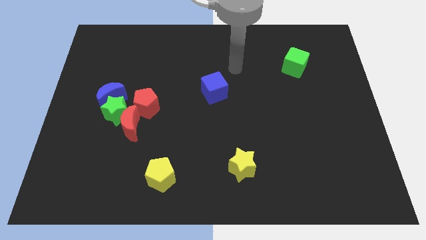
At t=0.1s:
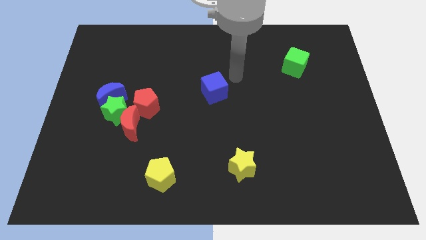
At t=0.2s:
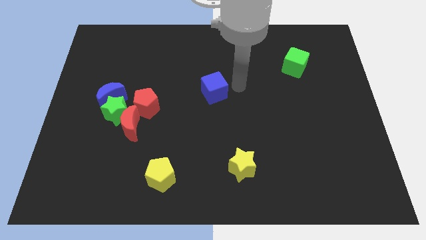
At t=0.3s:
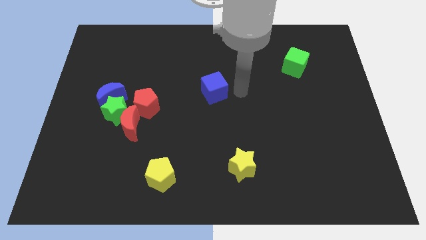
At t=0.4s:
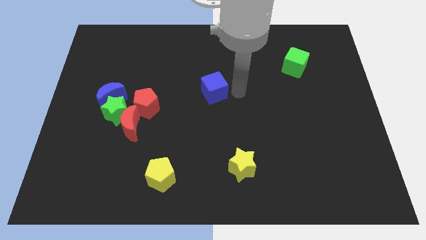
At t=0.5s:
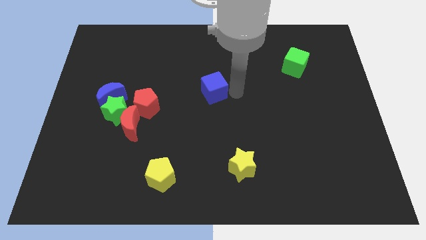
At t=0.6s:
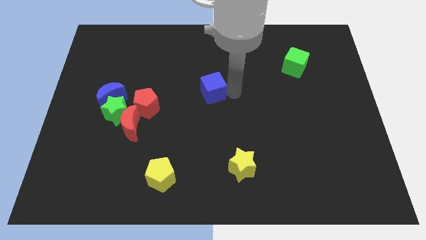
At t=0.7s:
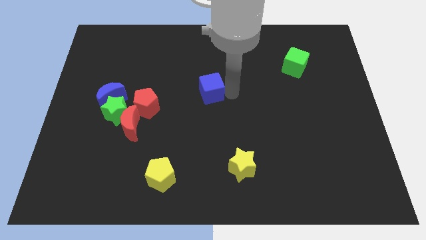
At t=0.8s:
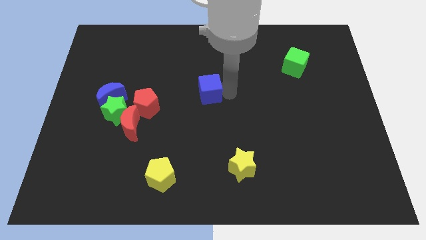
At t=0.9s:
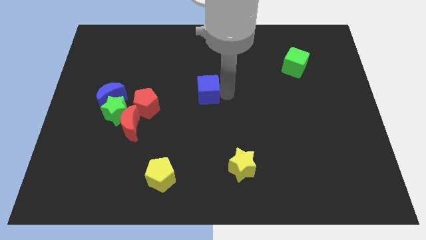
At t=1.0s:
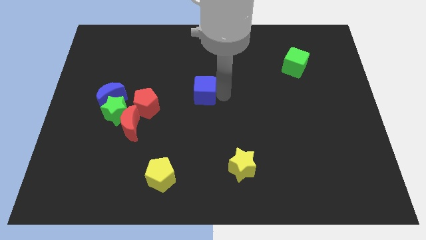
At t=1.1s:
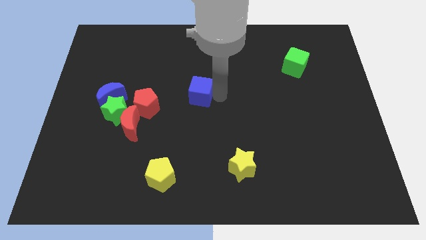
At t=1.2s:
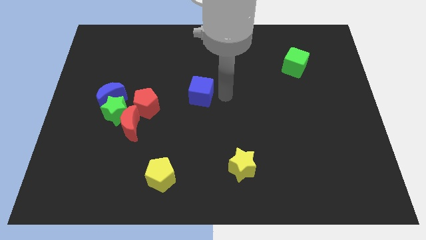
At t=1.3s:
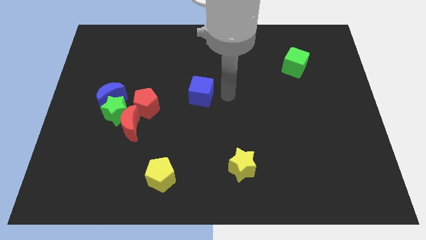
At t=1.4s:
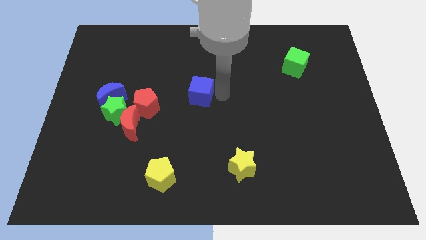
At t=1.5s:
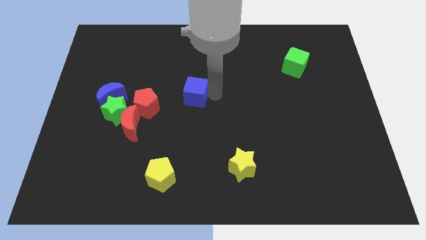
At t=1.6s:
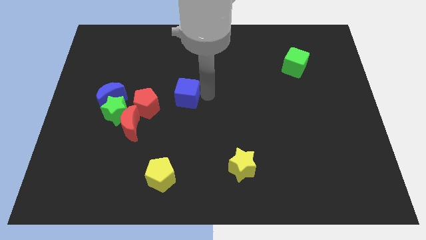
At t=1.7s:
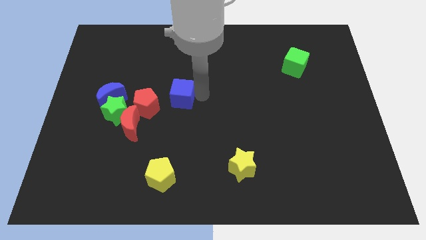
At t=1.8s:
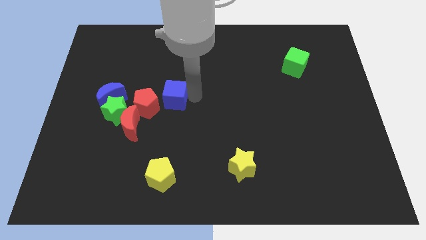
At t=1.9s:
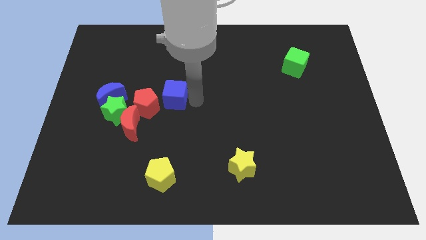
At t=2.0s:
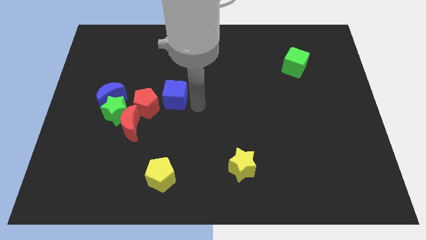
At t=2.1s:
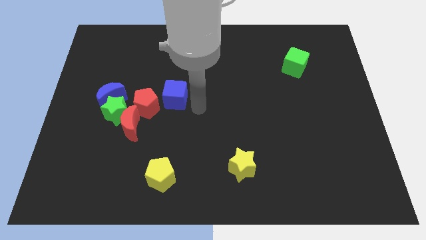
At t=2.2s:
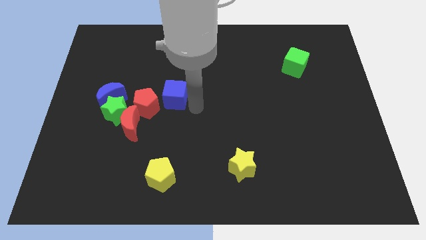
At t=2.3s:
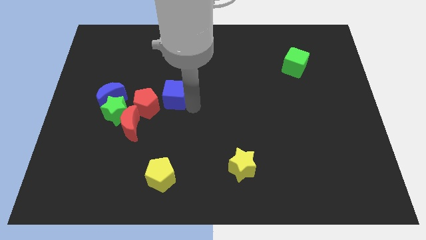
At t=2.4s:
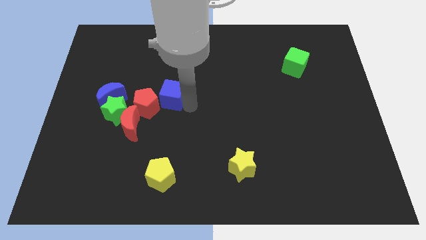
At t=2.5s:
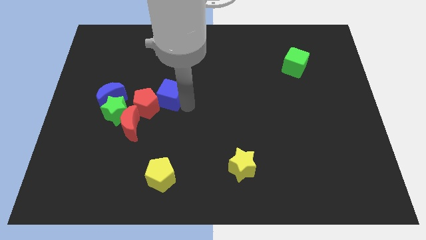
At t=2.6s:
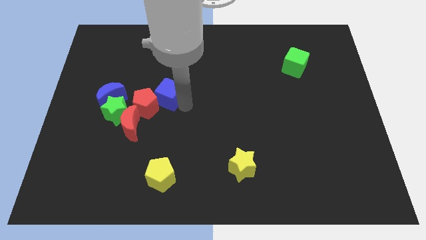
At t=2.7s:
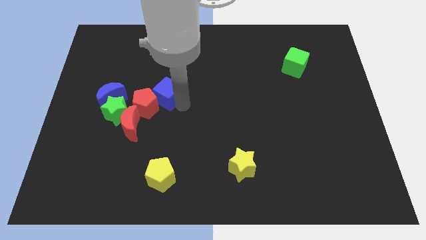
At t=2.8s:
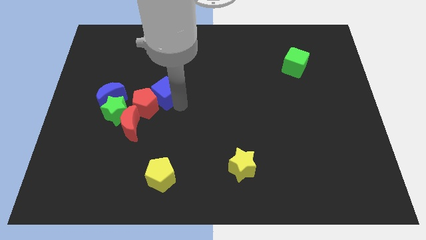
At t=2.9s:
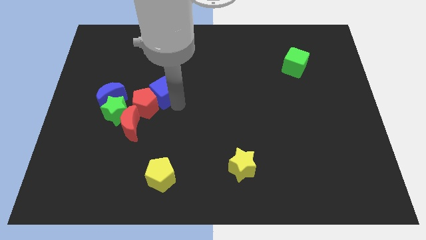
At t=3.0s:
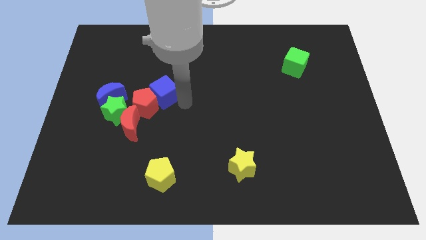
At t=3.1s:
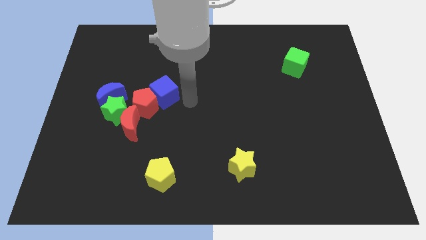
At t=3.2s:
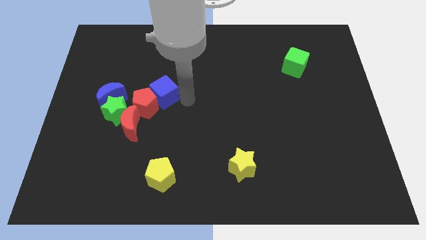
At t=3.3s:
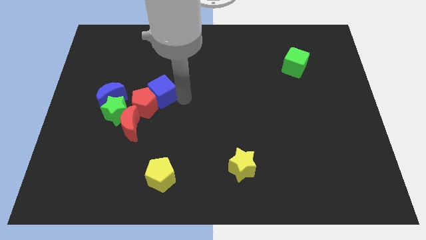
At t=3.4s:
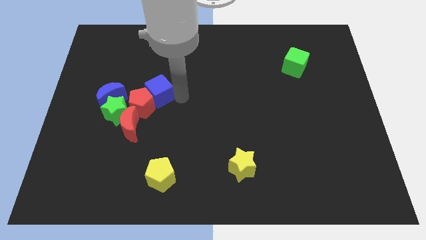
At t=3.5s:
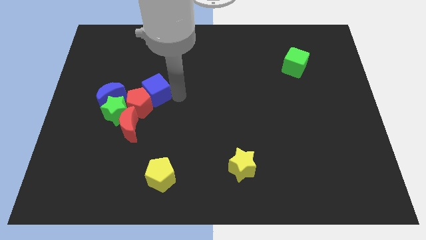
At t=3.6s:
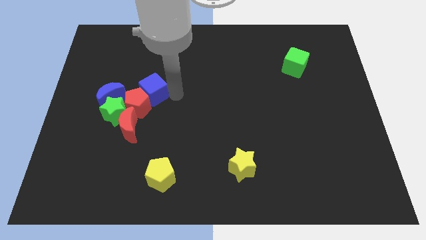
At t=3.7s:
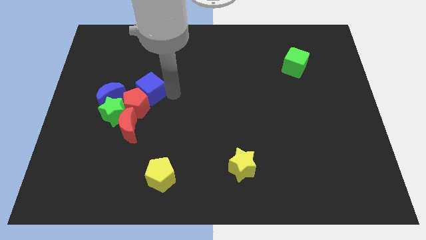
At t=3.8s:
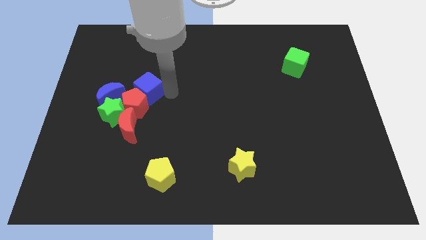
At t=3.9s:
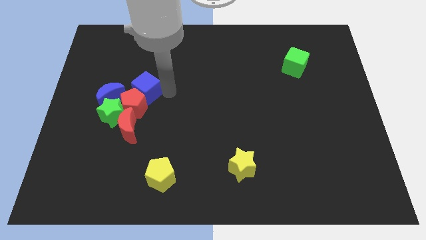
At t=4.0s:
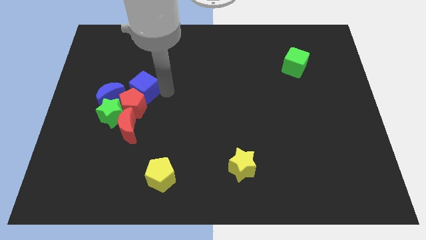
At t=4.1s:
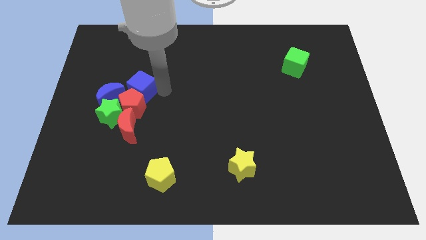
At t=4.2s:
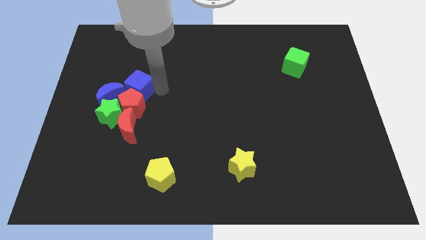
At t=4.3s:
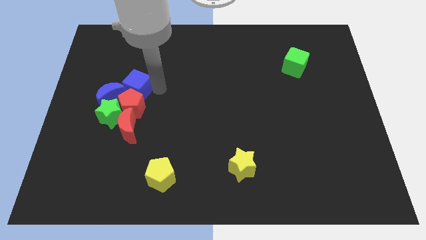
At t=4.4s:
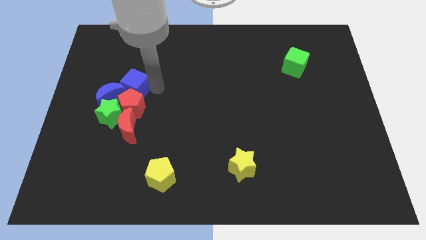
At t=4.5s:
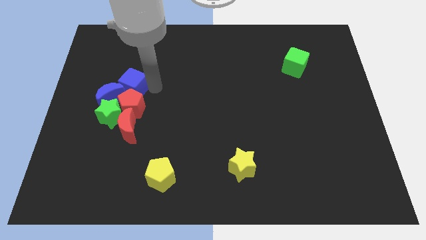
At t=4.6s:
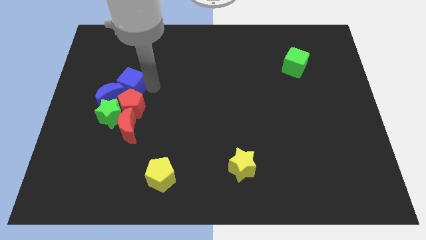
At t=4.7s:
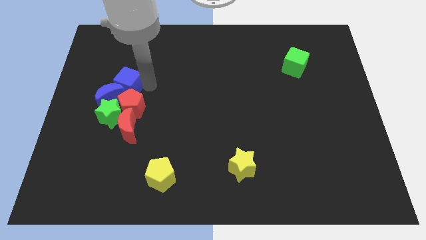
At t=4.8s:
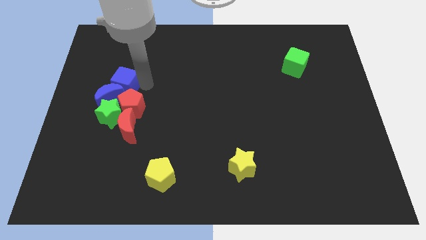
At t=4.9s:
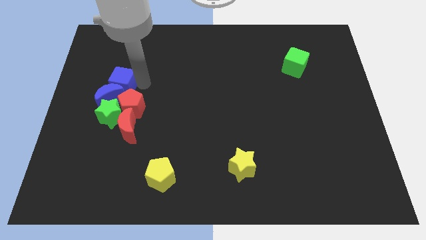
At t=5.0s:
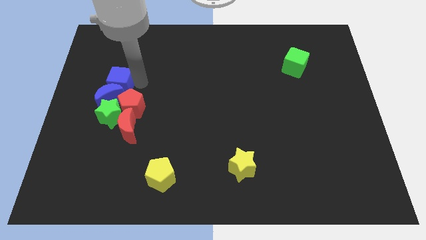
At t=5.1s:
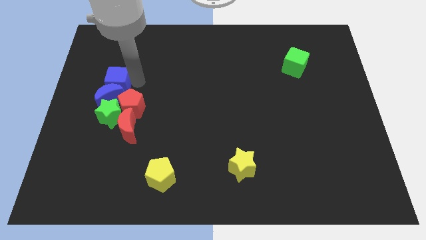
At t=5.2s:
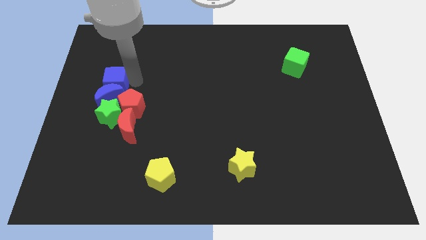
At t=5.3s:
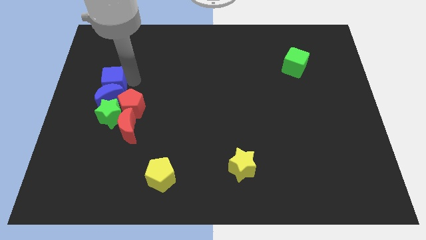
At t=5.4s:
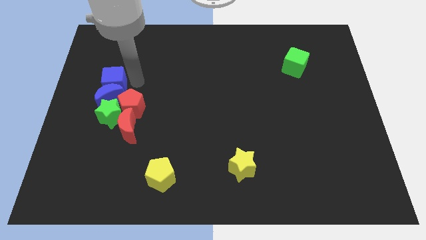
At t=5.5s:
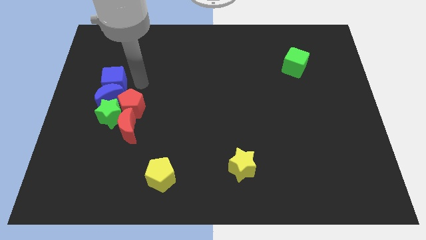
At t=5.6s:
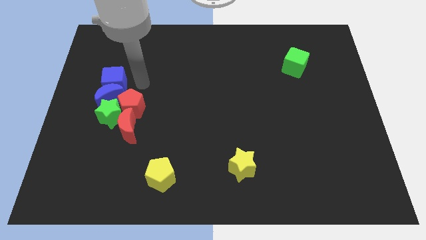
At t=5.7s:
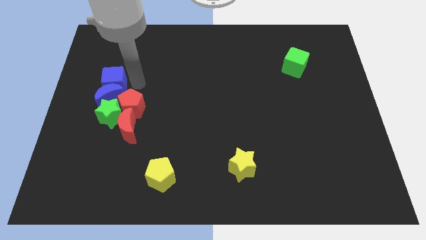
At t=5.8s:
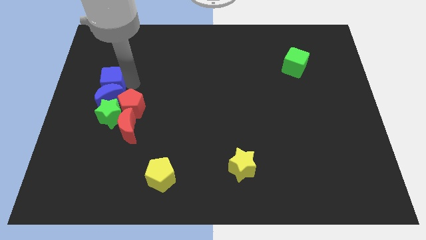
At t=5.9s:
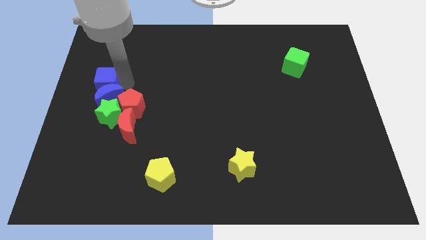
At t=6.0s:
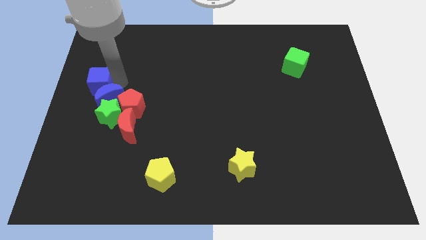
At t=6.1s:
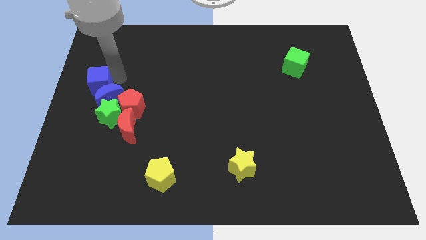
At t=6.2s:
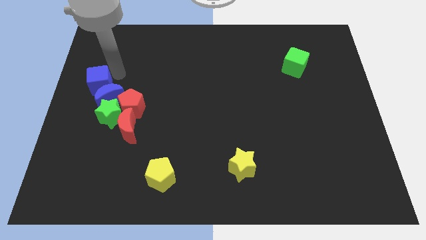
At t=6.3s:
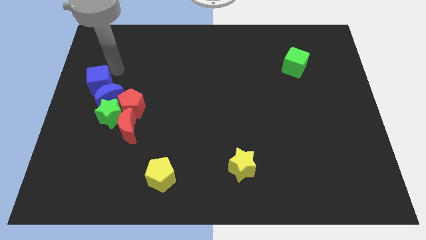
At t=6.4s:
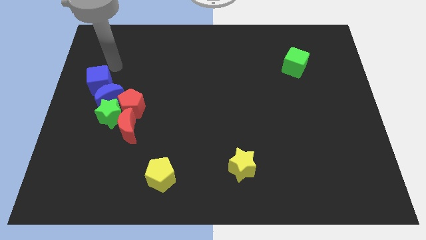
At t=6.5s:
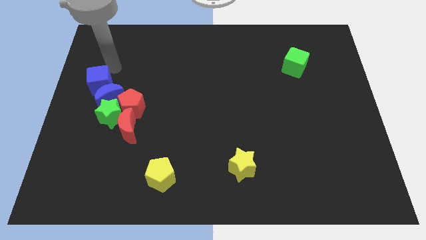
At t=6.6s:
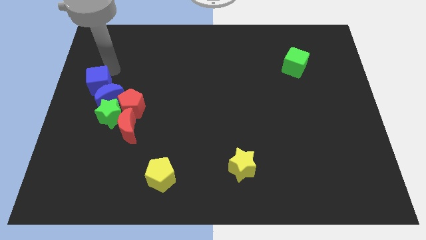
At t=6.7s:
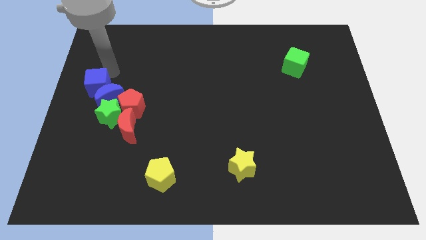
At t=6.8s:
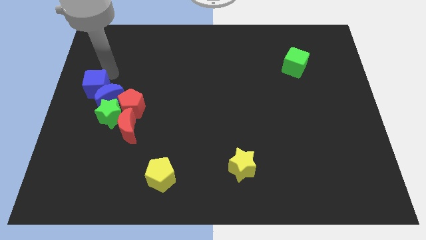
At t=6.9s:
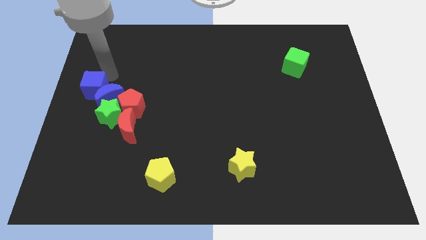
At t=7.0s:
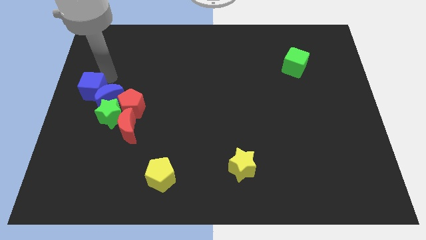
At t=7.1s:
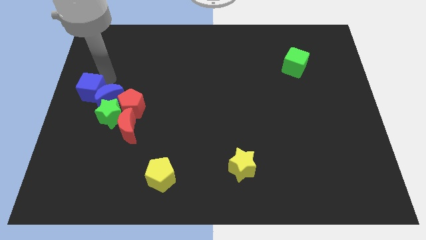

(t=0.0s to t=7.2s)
put the blue cube to the left of the red pentagon
